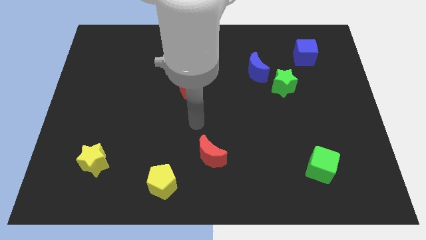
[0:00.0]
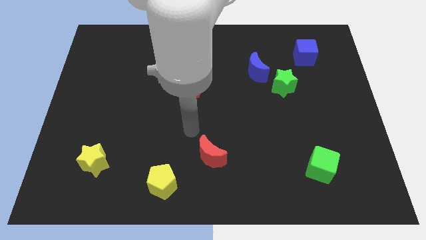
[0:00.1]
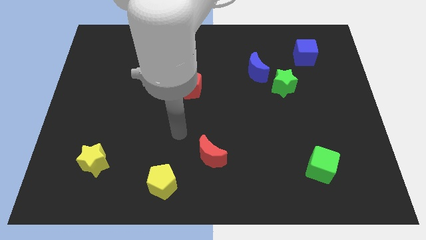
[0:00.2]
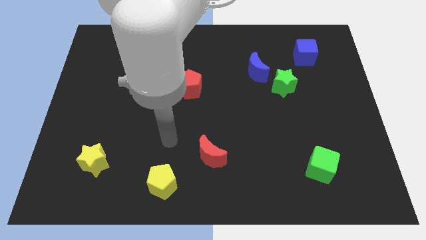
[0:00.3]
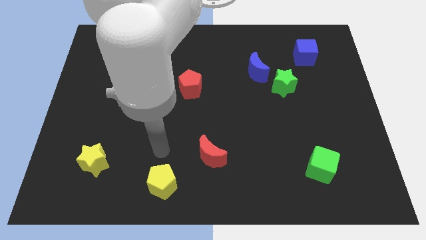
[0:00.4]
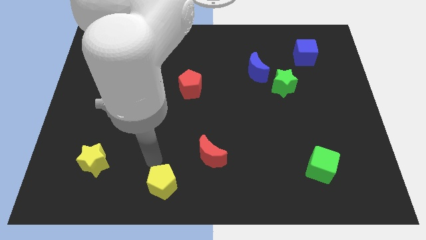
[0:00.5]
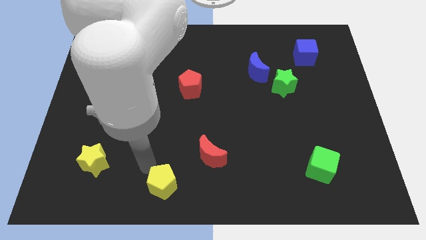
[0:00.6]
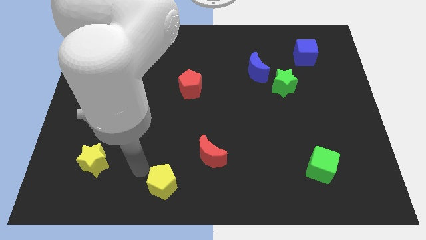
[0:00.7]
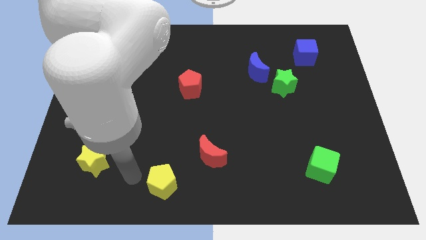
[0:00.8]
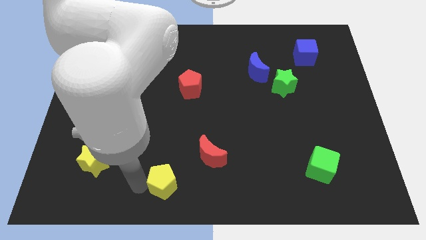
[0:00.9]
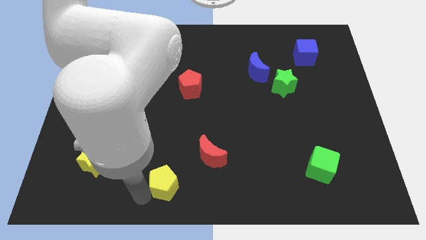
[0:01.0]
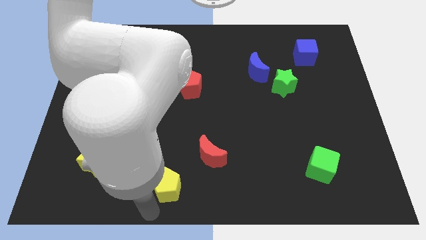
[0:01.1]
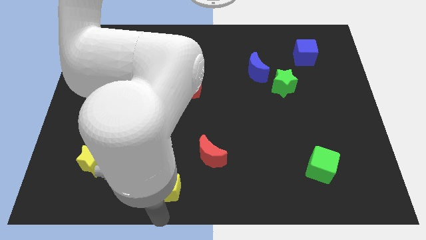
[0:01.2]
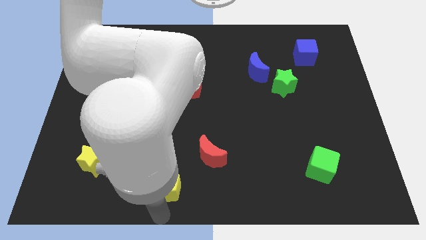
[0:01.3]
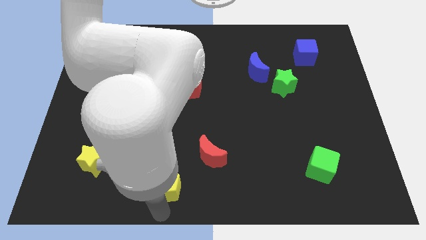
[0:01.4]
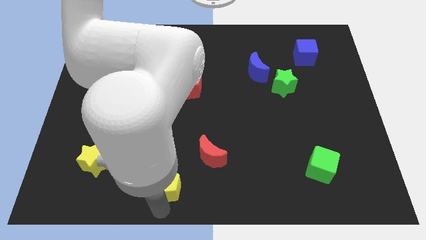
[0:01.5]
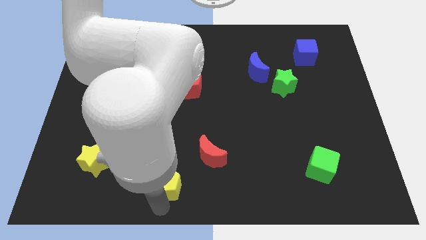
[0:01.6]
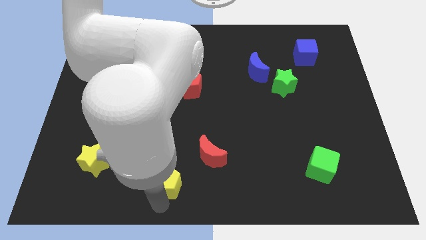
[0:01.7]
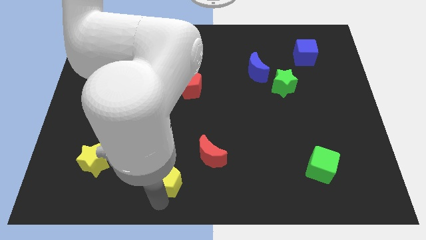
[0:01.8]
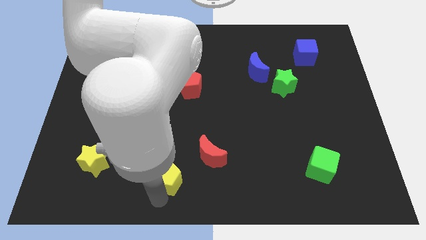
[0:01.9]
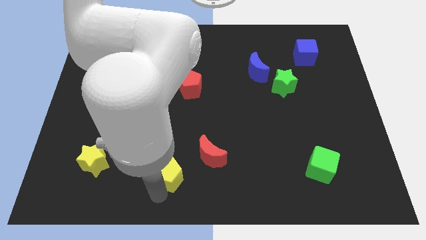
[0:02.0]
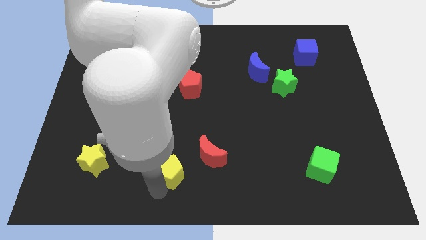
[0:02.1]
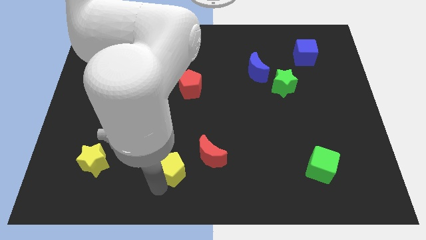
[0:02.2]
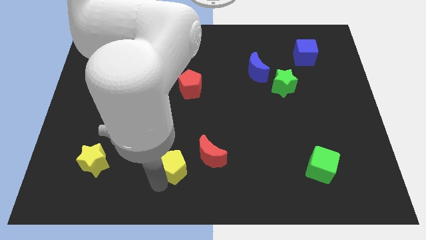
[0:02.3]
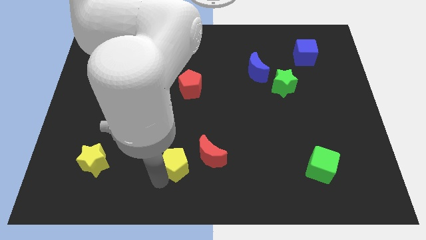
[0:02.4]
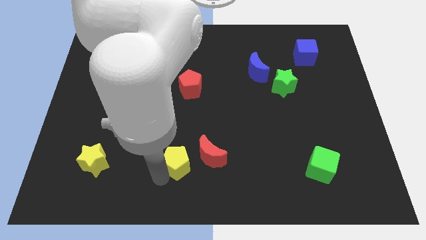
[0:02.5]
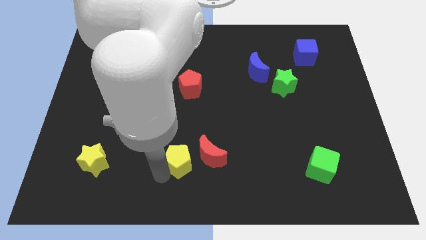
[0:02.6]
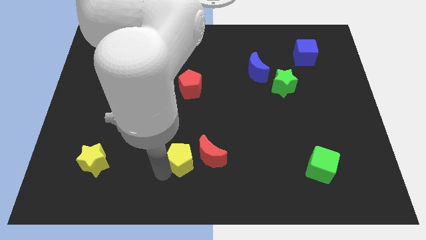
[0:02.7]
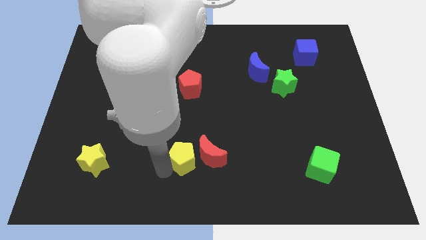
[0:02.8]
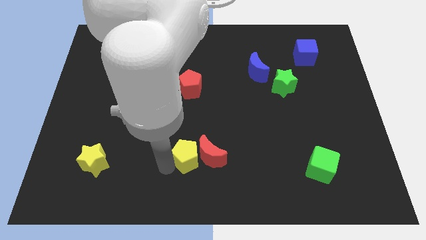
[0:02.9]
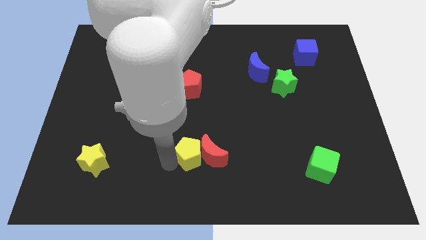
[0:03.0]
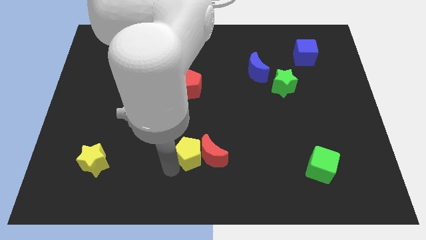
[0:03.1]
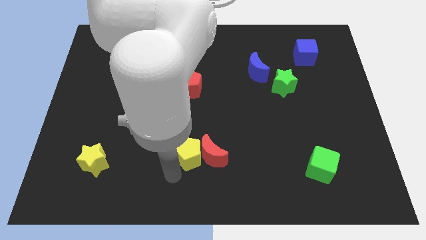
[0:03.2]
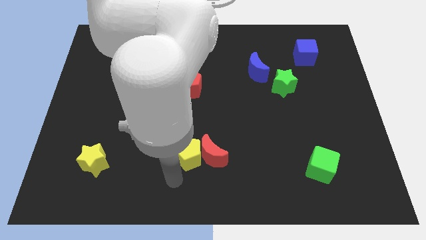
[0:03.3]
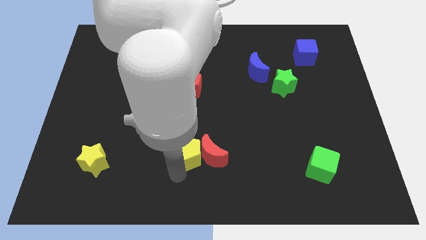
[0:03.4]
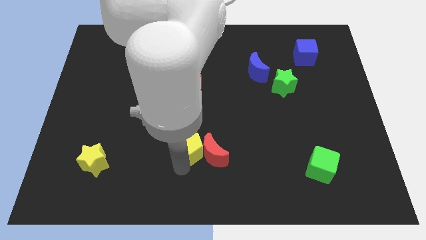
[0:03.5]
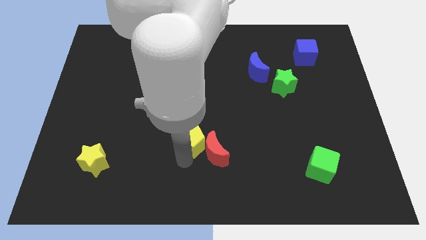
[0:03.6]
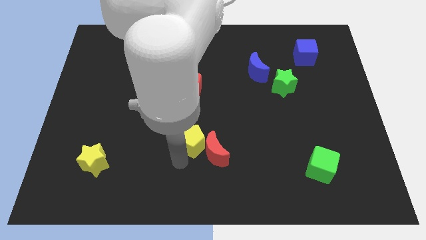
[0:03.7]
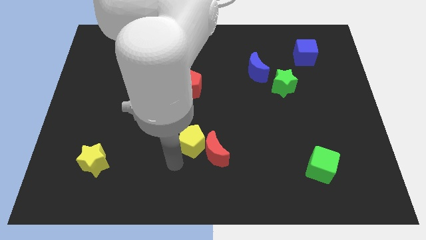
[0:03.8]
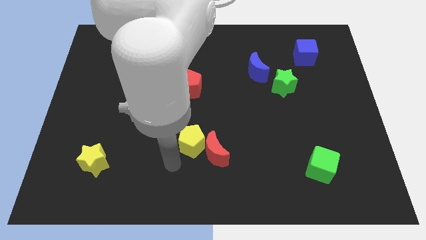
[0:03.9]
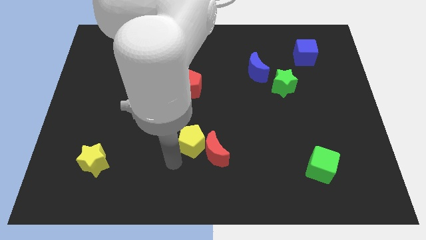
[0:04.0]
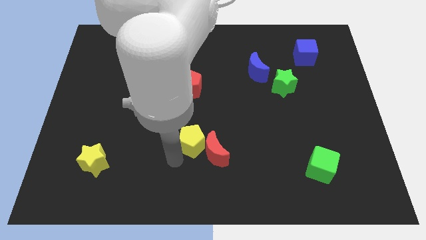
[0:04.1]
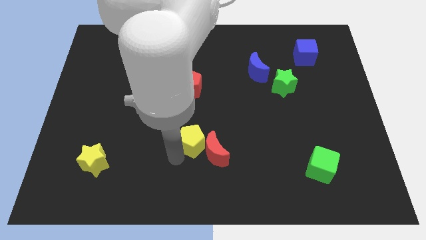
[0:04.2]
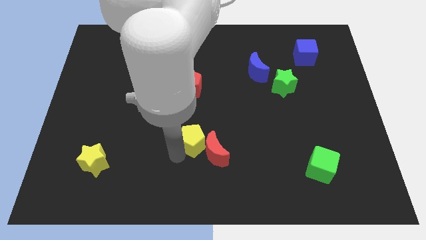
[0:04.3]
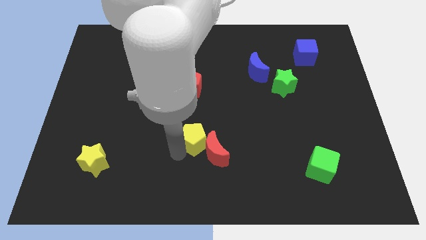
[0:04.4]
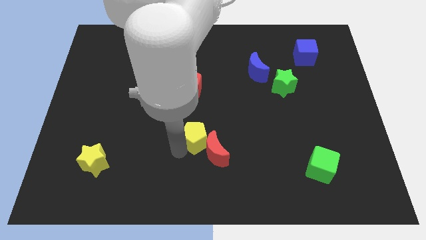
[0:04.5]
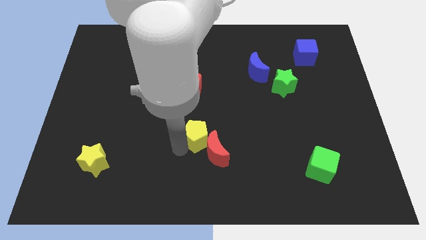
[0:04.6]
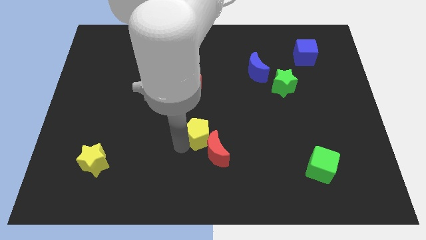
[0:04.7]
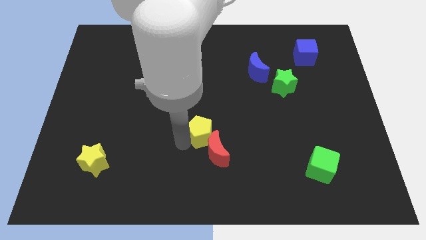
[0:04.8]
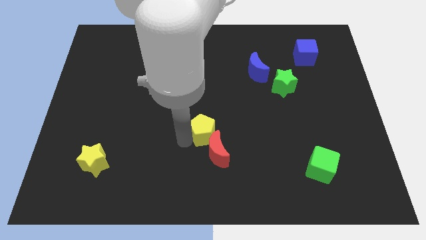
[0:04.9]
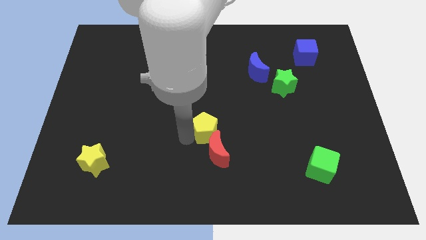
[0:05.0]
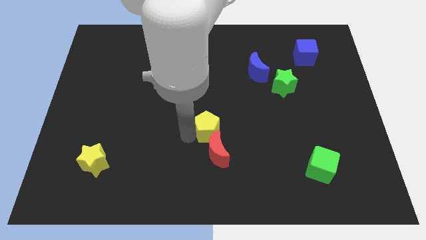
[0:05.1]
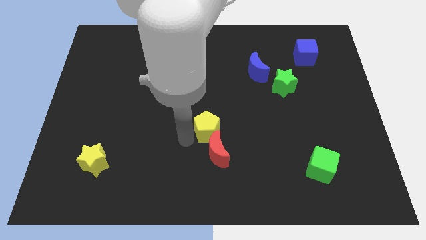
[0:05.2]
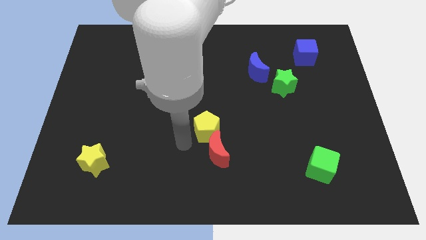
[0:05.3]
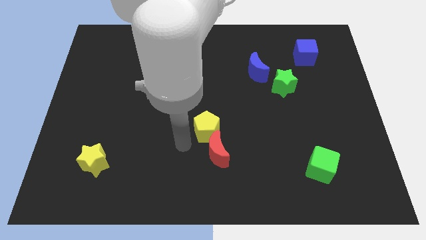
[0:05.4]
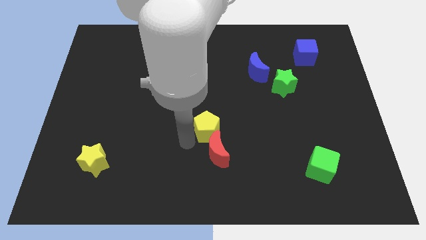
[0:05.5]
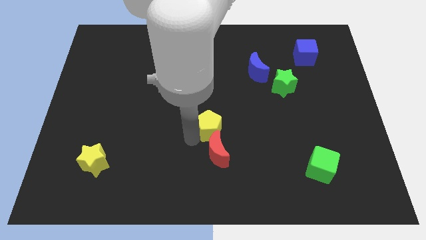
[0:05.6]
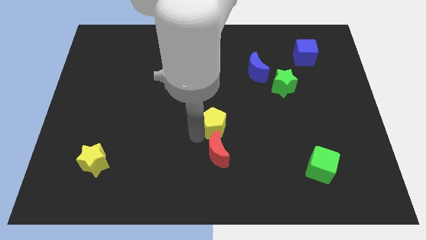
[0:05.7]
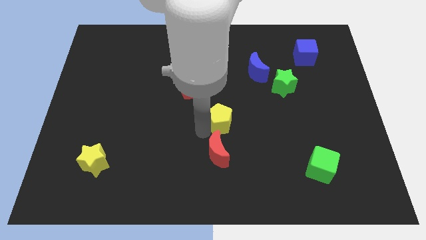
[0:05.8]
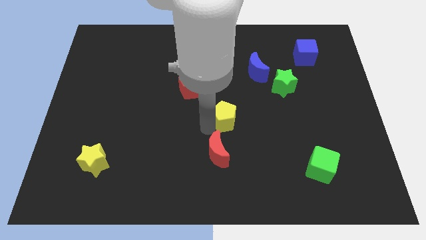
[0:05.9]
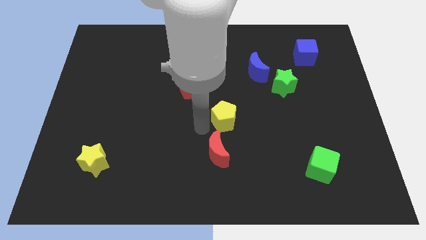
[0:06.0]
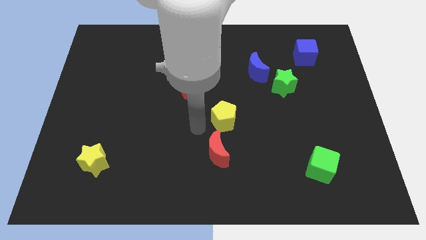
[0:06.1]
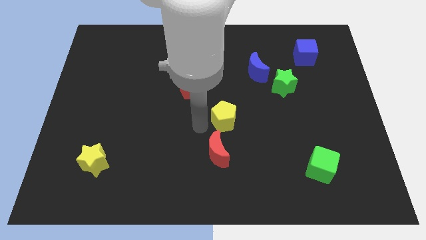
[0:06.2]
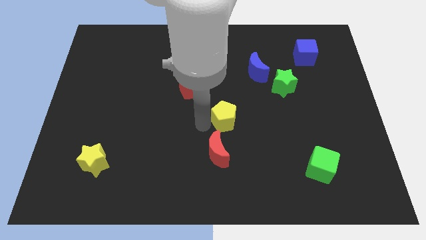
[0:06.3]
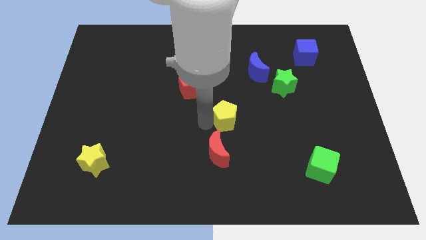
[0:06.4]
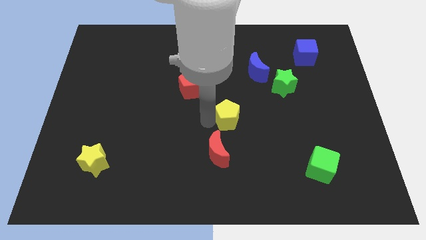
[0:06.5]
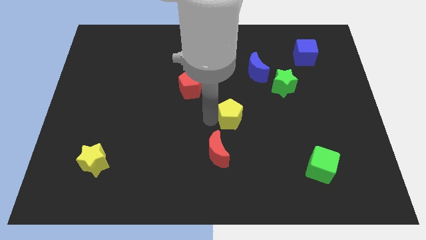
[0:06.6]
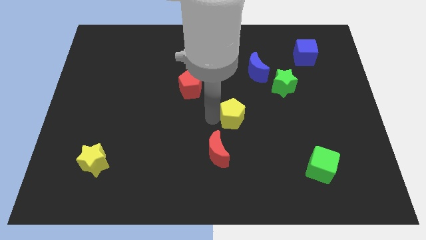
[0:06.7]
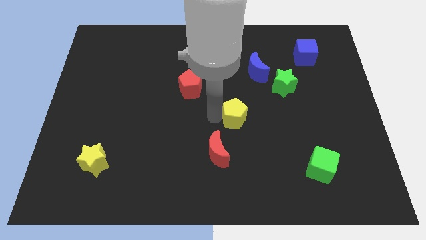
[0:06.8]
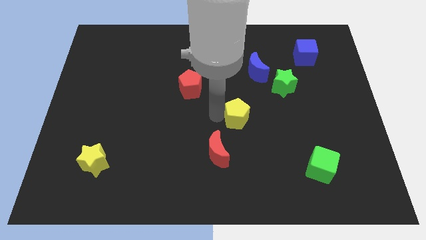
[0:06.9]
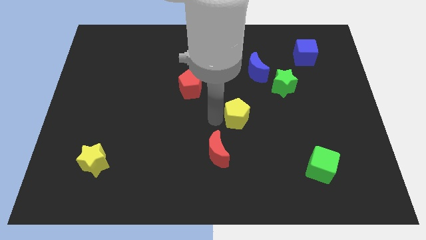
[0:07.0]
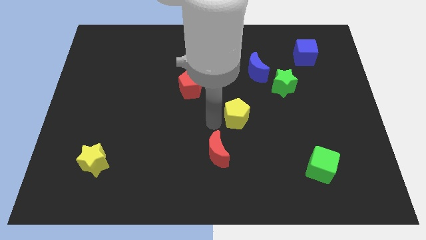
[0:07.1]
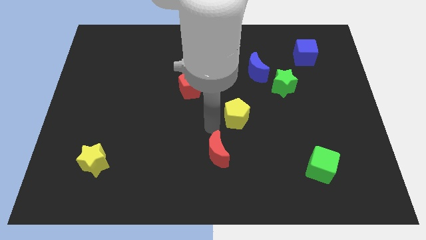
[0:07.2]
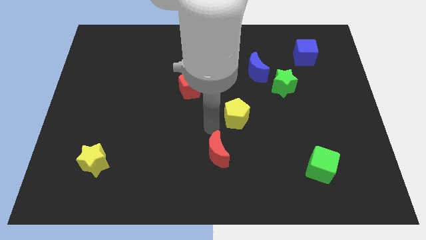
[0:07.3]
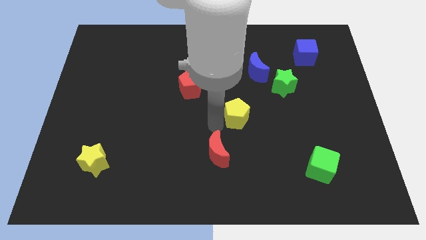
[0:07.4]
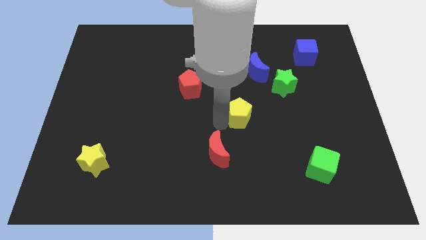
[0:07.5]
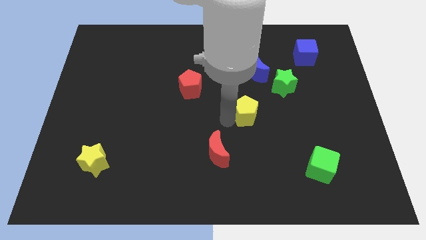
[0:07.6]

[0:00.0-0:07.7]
put the yellow pentagon to the bottom left of the green star
